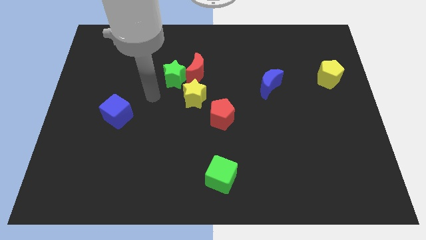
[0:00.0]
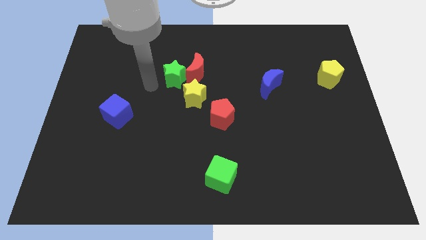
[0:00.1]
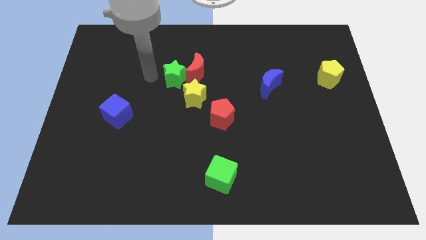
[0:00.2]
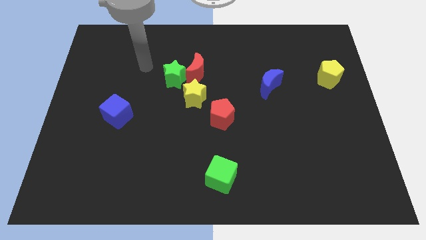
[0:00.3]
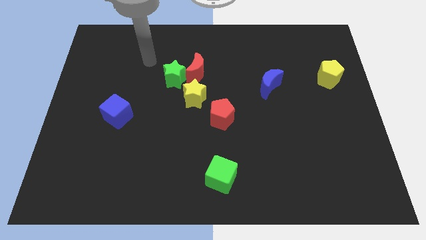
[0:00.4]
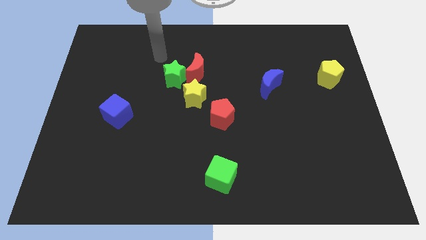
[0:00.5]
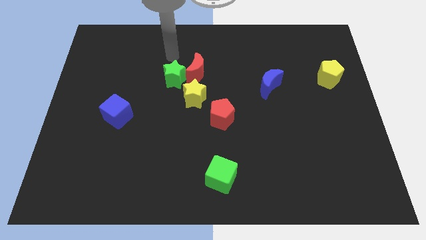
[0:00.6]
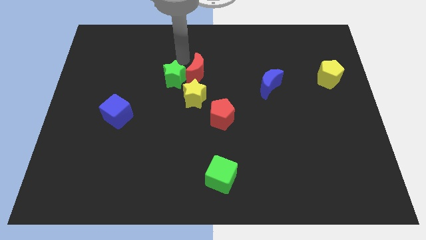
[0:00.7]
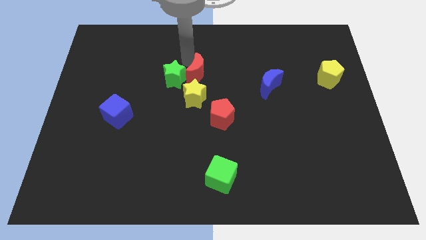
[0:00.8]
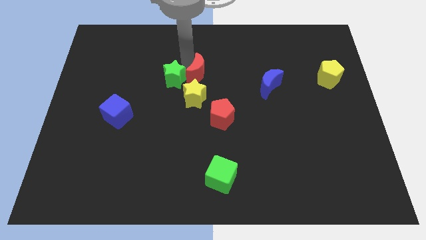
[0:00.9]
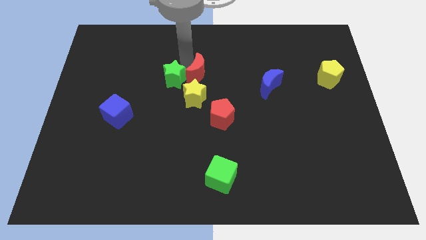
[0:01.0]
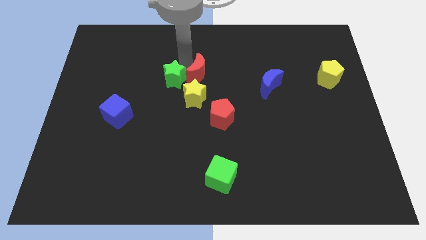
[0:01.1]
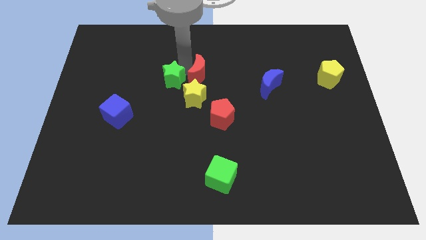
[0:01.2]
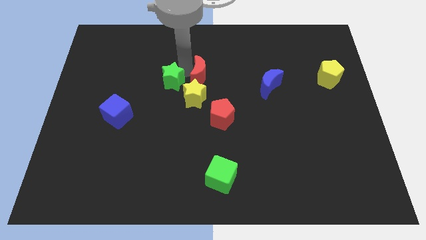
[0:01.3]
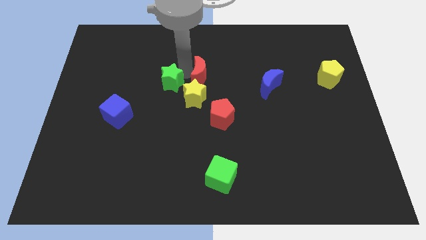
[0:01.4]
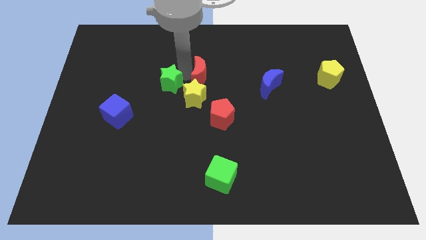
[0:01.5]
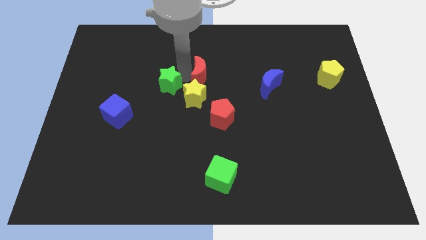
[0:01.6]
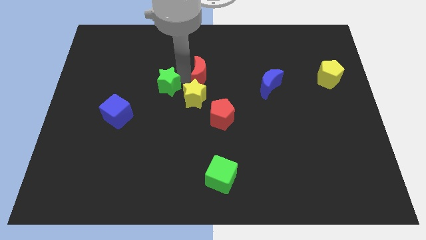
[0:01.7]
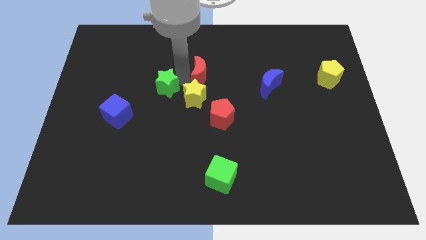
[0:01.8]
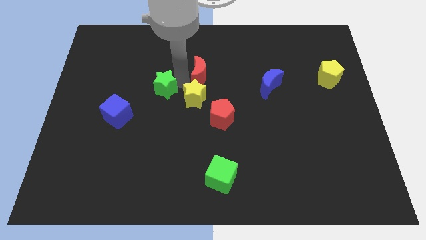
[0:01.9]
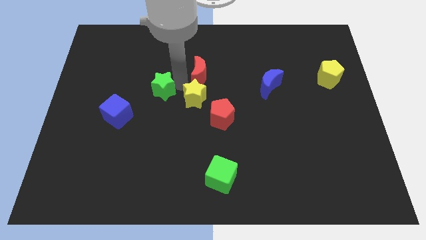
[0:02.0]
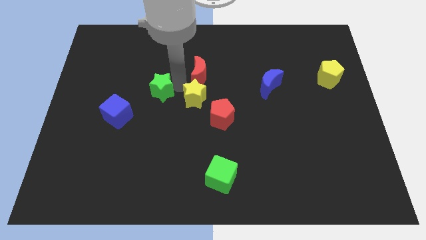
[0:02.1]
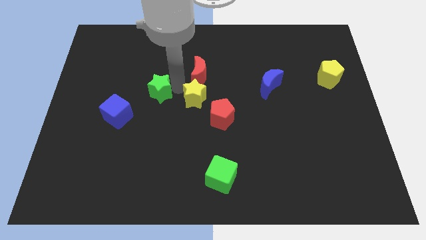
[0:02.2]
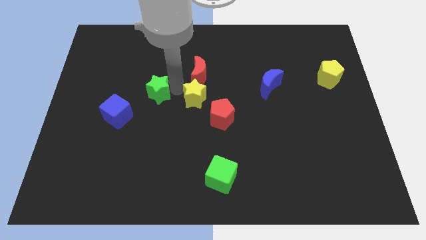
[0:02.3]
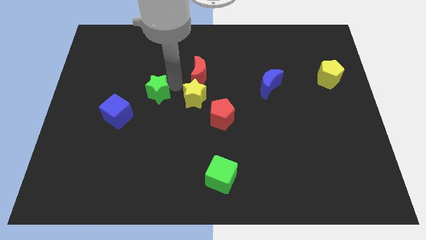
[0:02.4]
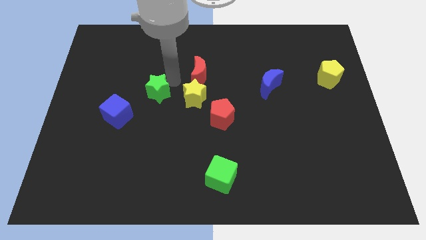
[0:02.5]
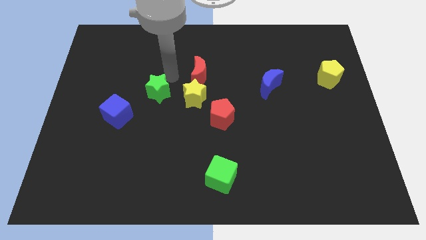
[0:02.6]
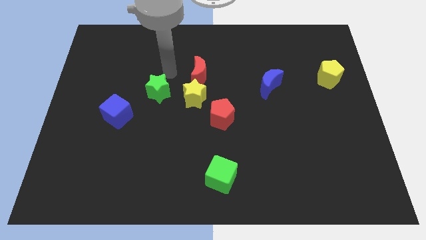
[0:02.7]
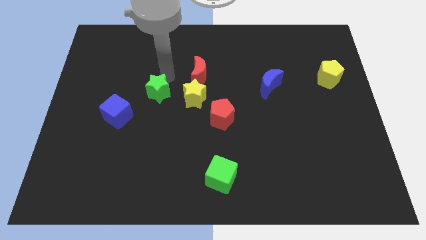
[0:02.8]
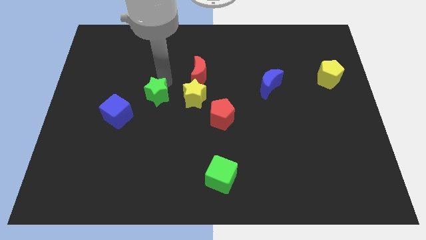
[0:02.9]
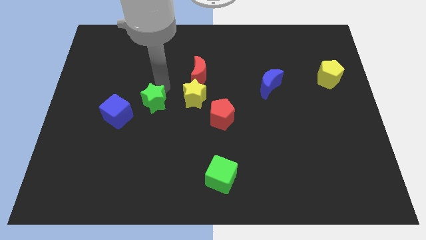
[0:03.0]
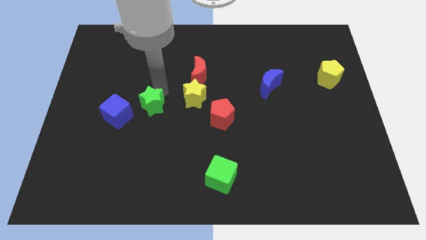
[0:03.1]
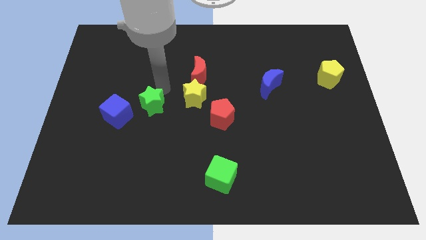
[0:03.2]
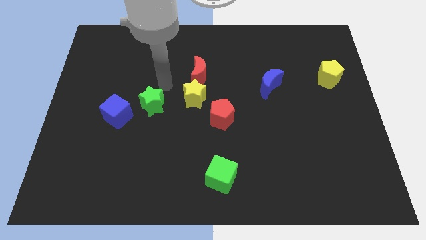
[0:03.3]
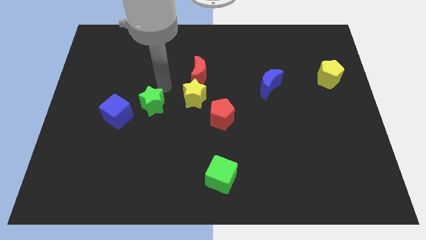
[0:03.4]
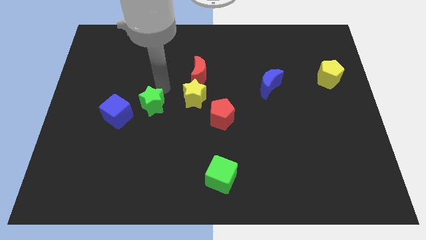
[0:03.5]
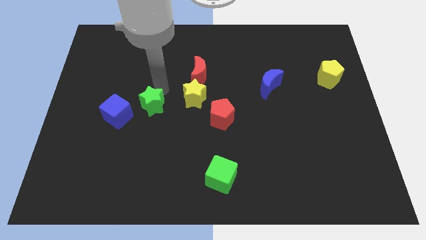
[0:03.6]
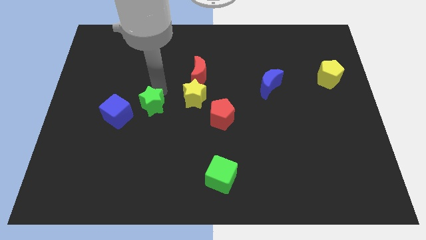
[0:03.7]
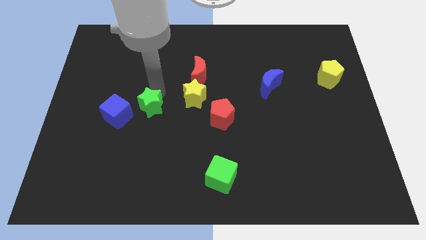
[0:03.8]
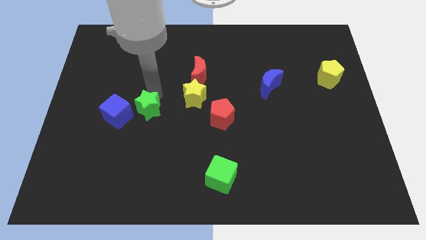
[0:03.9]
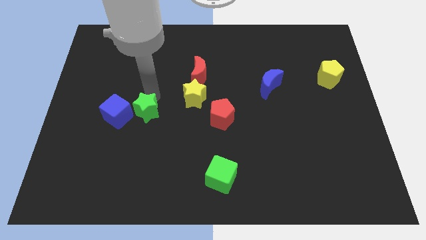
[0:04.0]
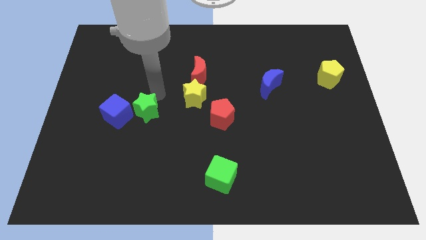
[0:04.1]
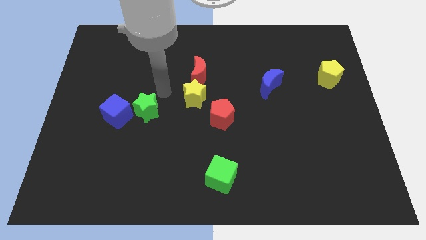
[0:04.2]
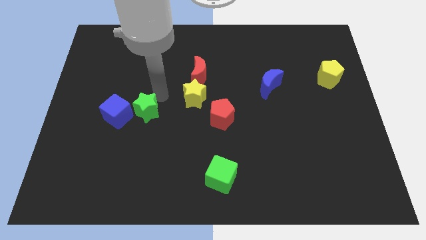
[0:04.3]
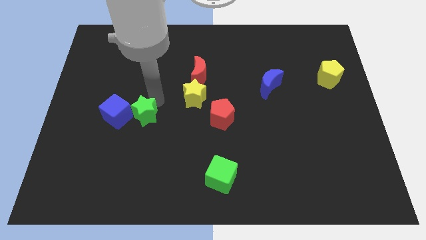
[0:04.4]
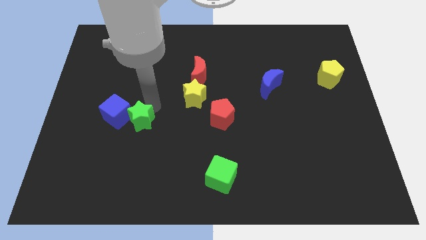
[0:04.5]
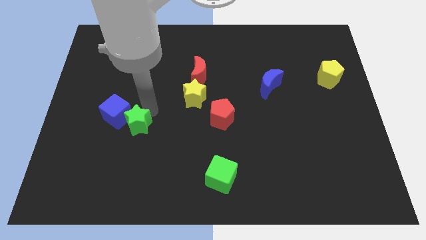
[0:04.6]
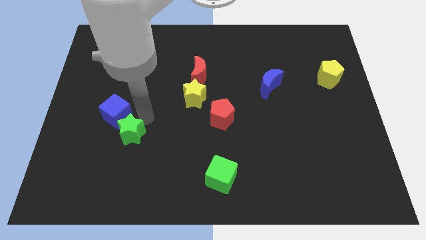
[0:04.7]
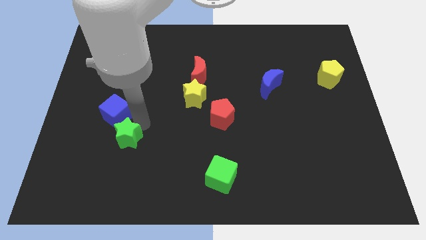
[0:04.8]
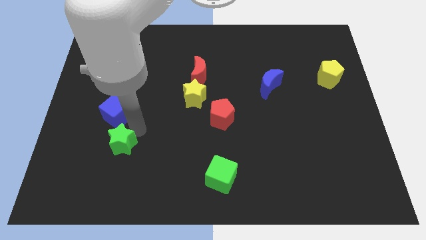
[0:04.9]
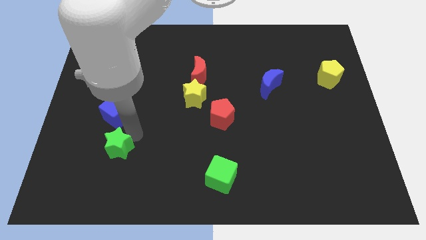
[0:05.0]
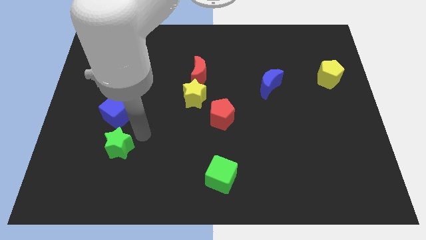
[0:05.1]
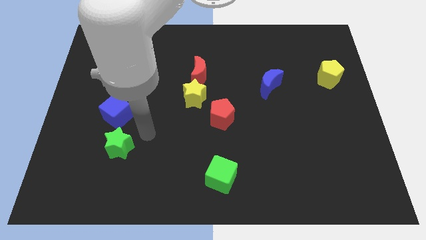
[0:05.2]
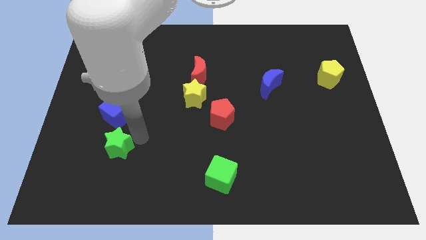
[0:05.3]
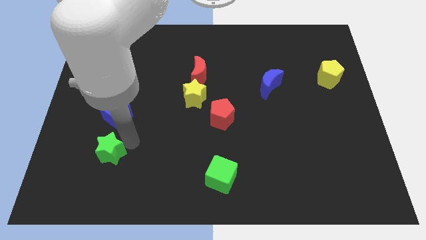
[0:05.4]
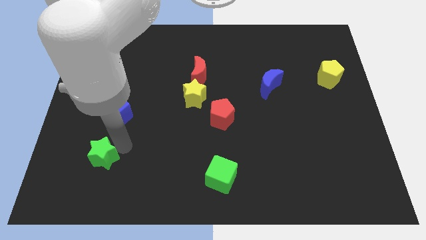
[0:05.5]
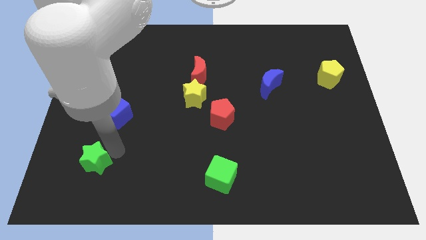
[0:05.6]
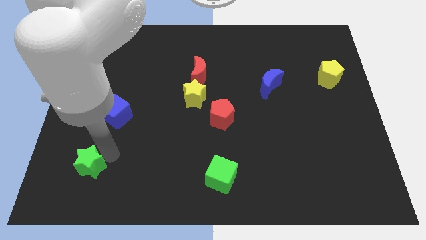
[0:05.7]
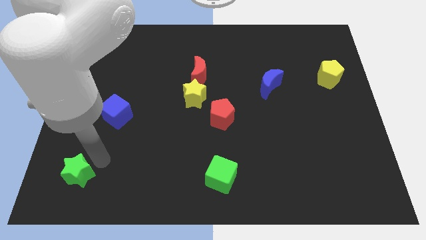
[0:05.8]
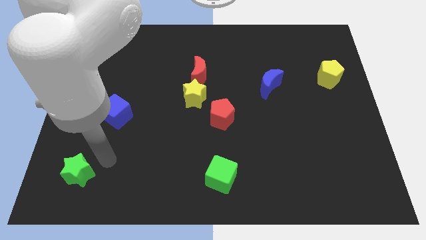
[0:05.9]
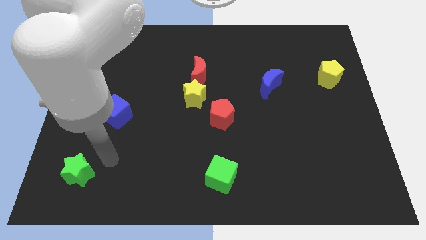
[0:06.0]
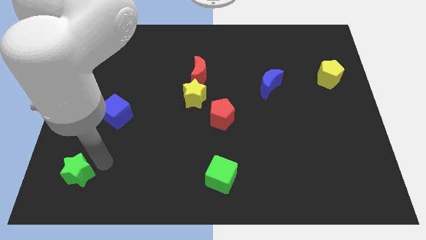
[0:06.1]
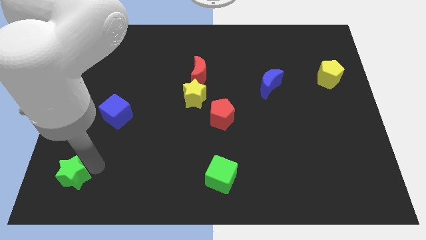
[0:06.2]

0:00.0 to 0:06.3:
push the green star to the bottom left of the board
